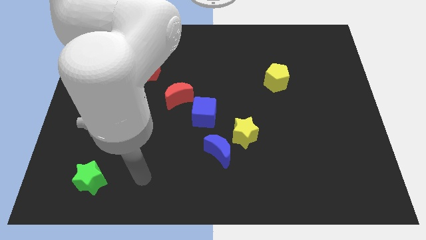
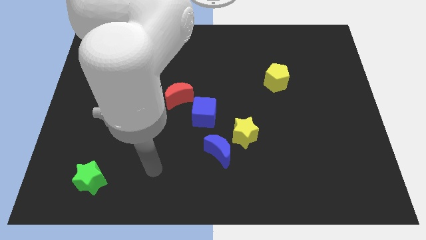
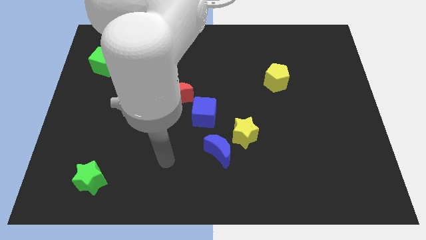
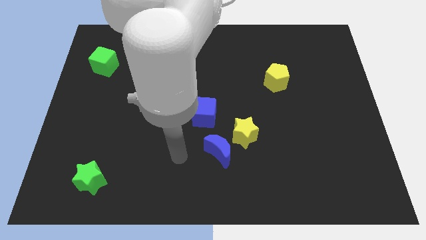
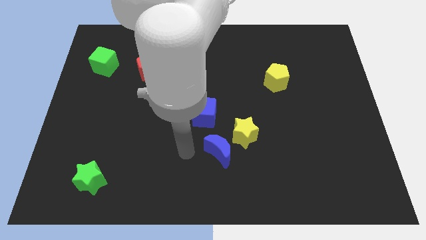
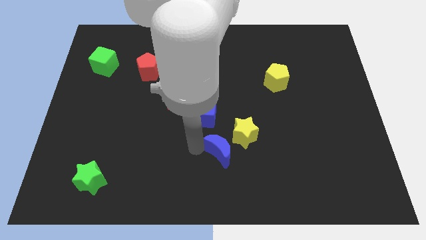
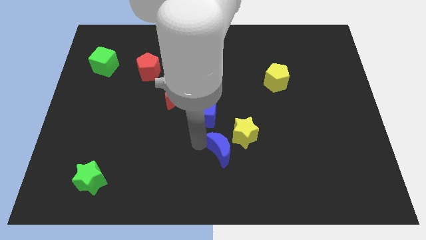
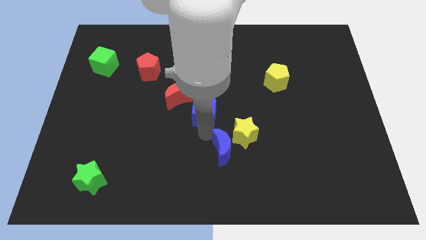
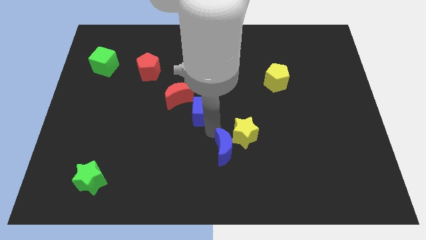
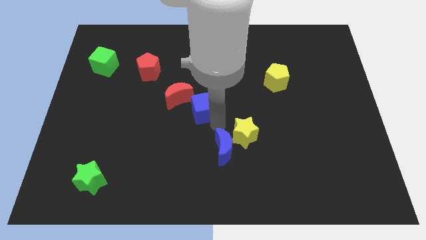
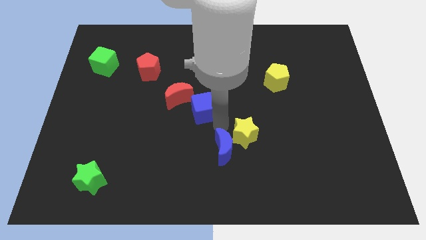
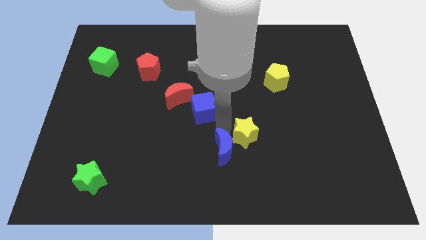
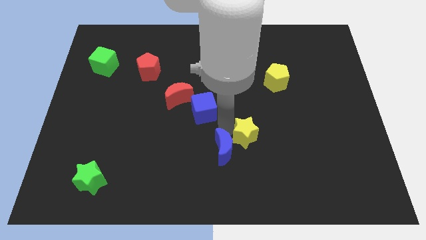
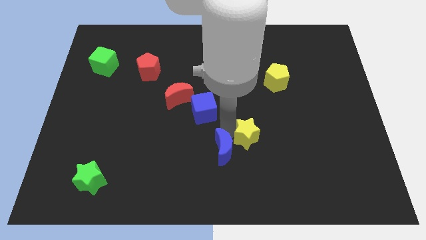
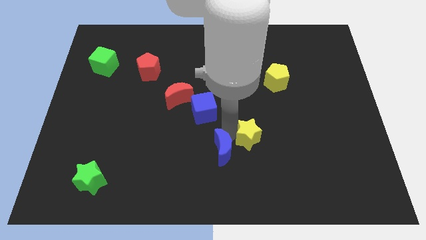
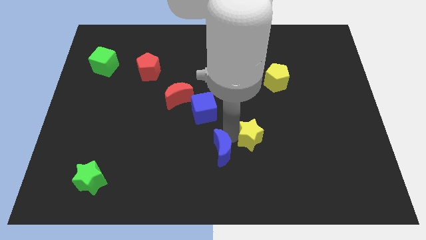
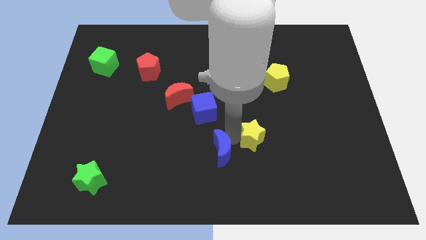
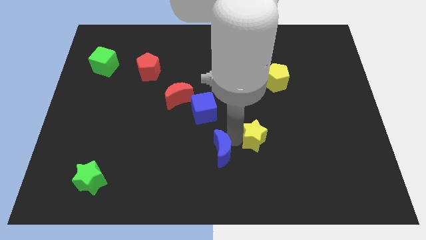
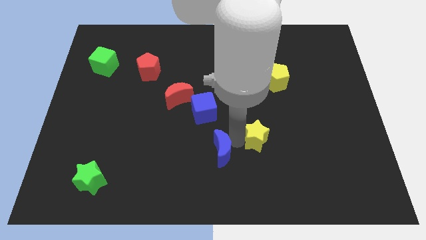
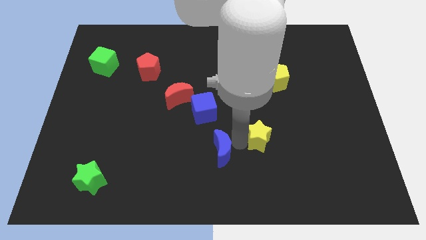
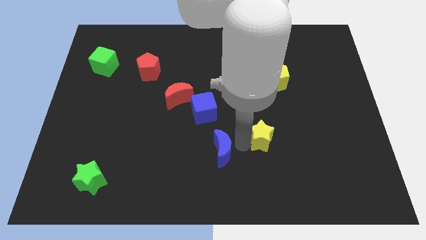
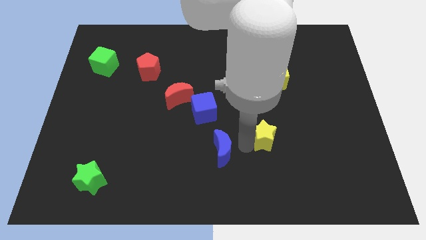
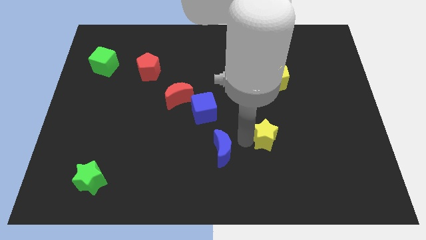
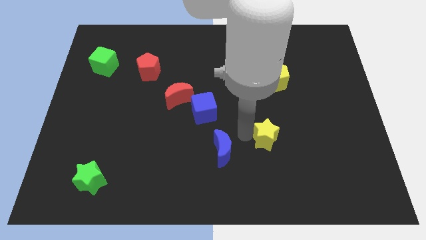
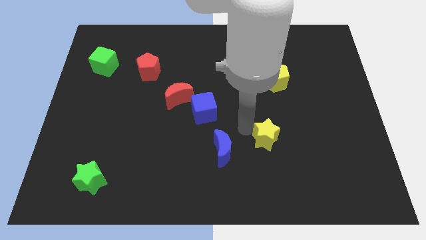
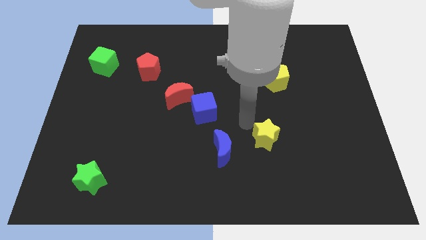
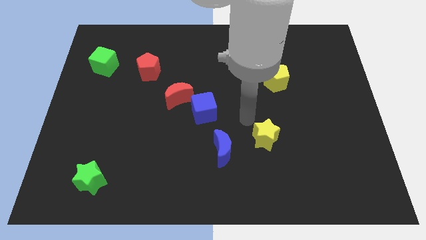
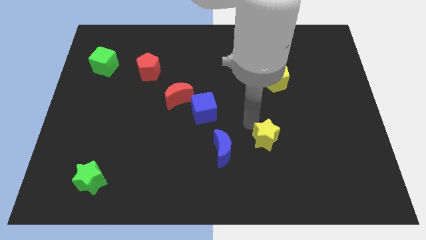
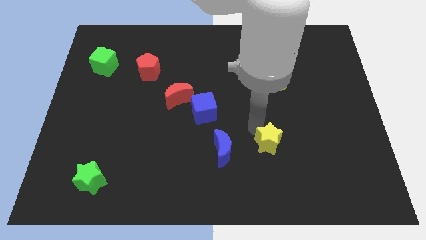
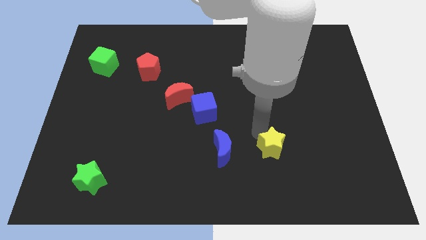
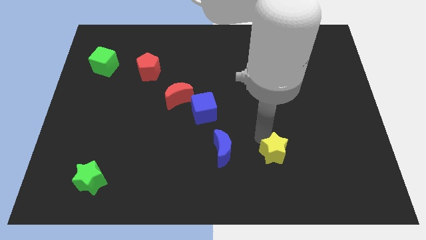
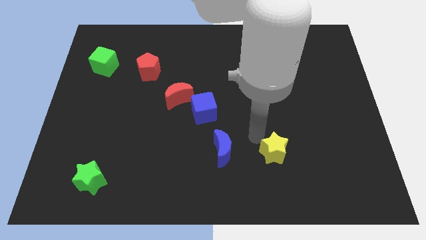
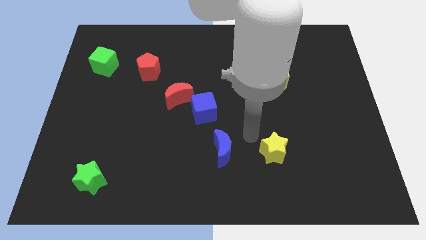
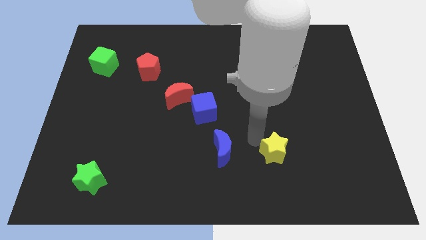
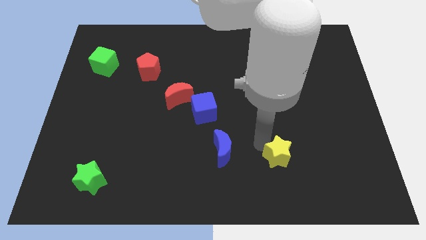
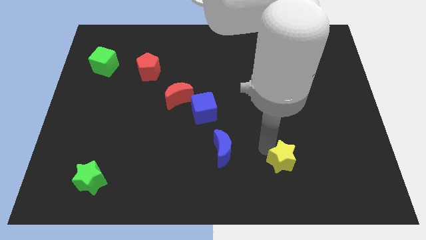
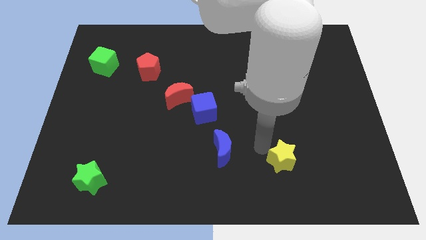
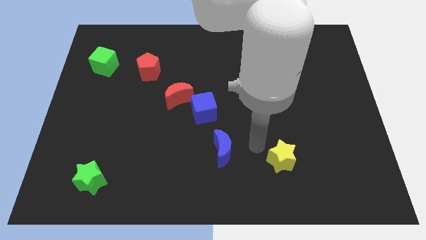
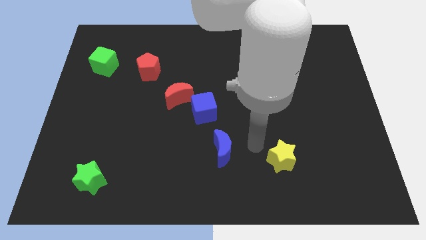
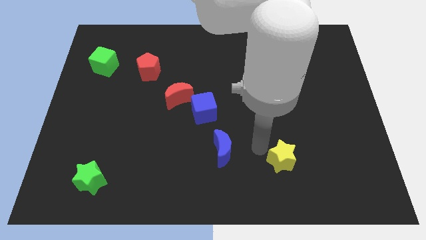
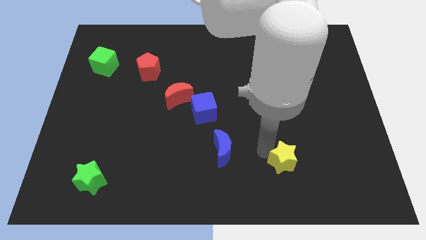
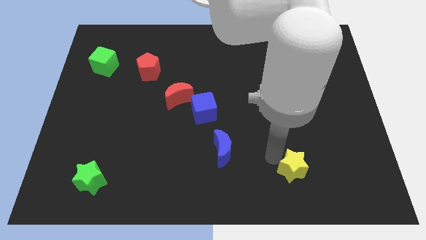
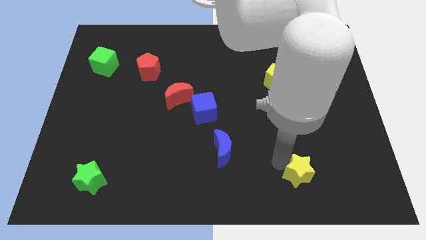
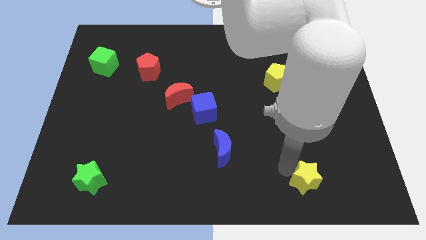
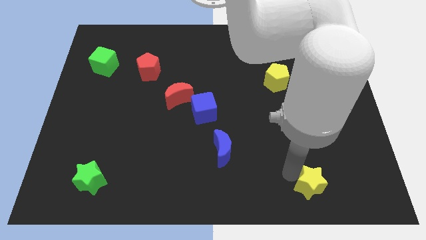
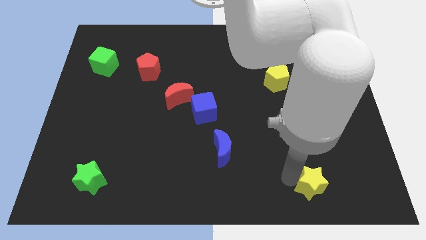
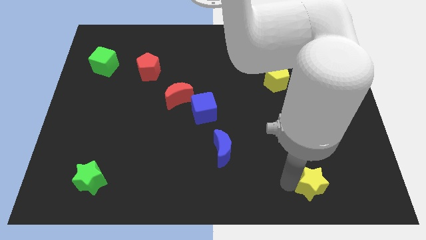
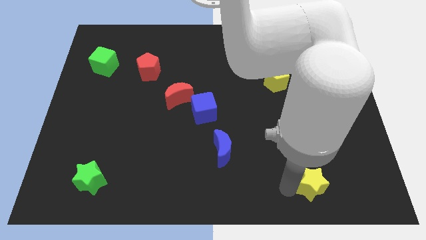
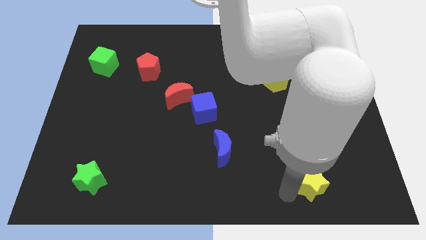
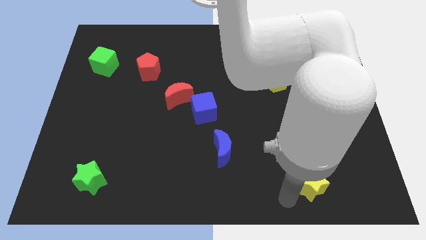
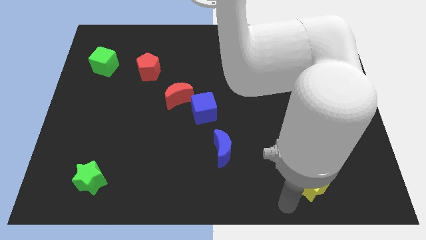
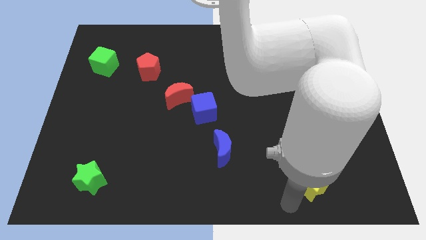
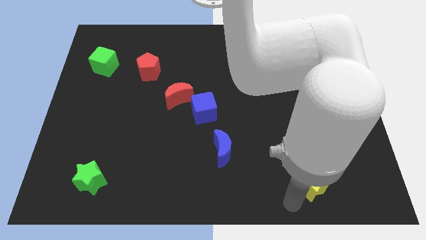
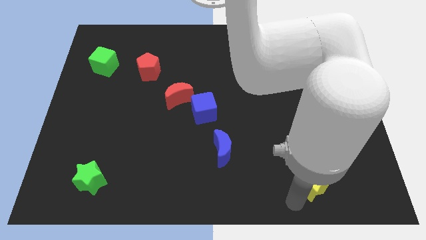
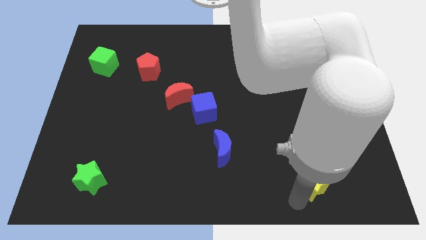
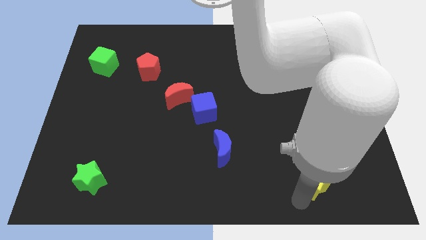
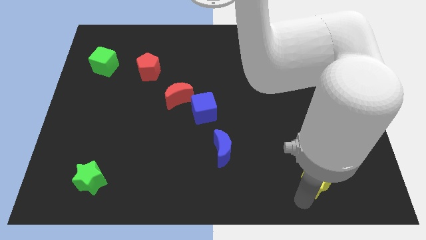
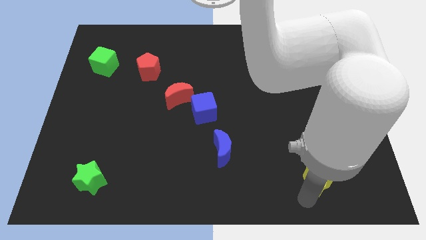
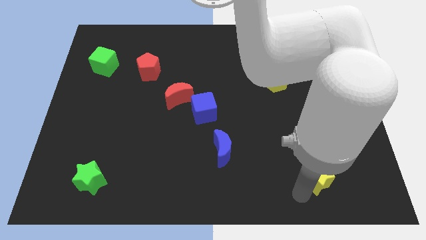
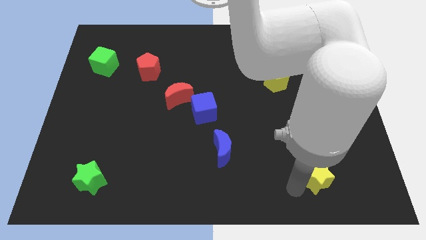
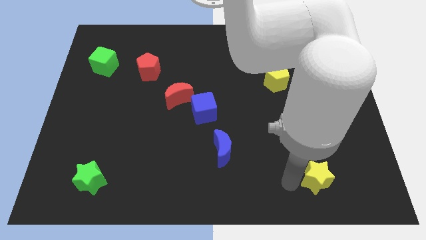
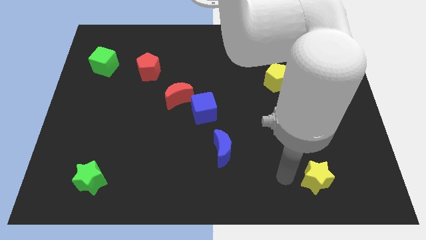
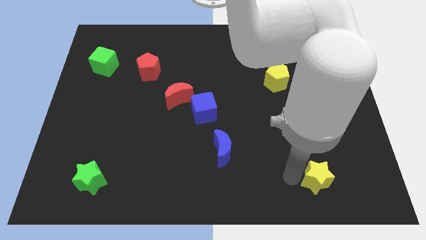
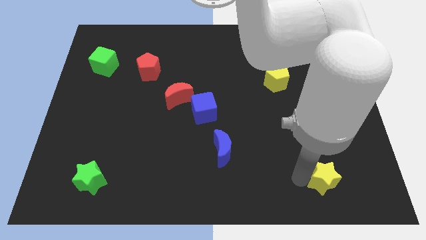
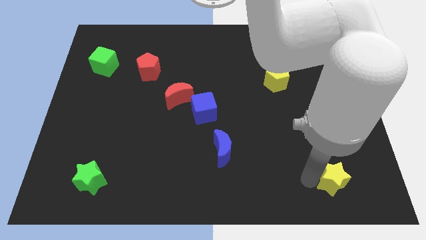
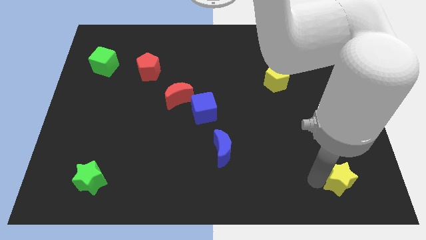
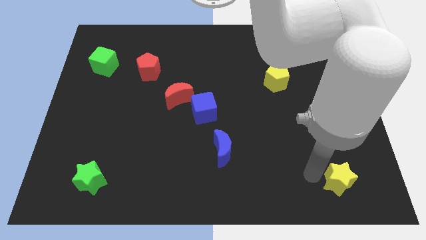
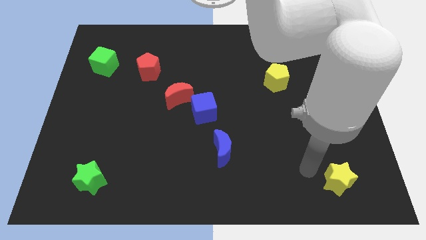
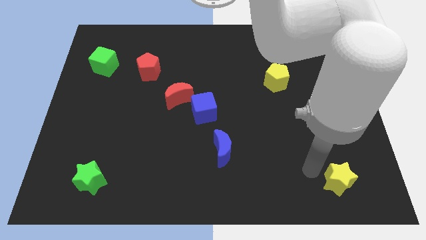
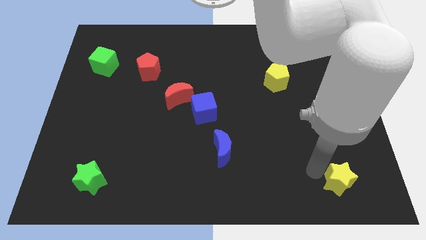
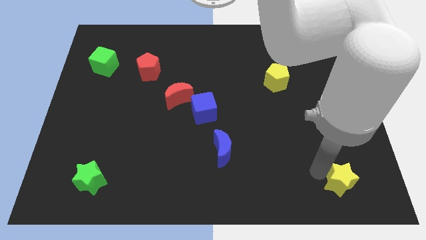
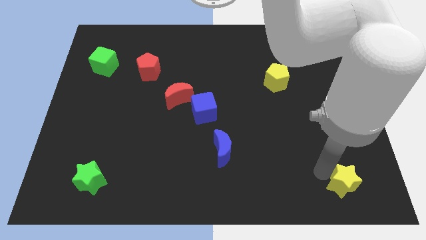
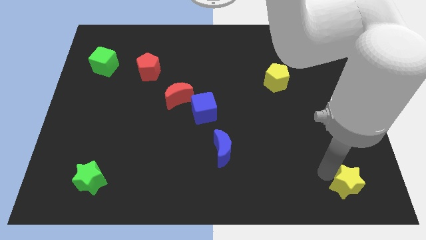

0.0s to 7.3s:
slide the yellow star to the bottom right corner
